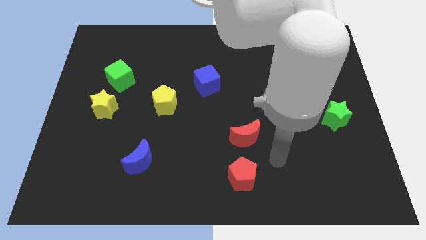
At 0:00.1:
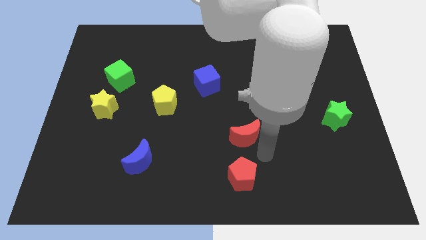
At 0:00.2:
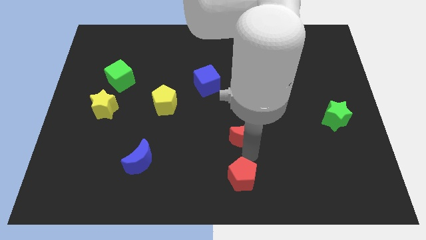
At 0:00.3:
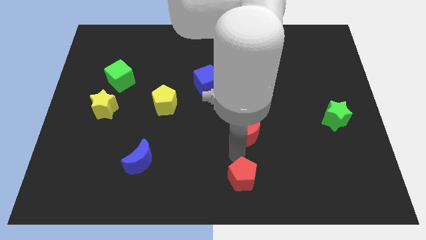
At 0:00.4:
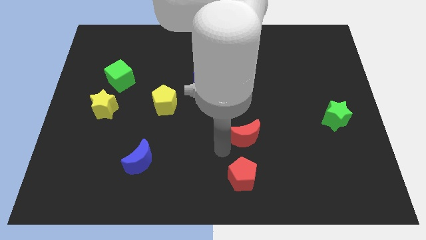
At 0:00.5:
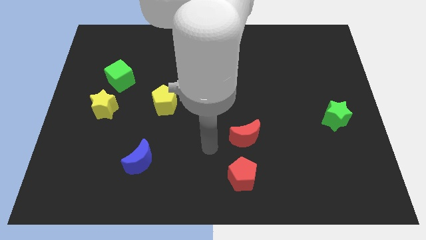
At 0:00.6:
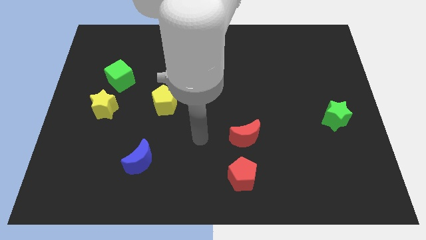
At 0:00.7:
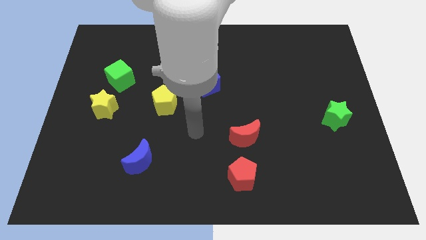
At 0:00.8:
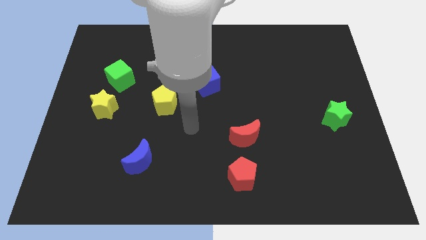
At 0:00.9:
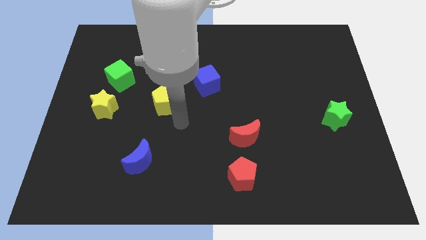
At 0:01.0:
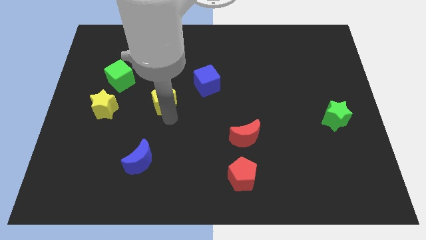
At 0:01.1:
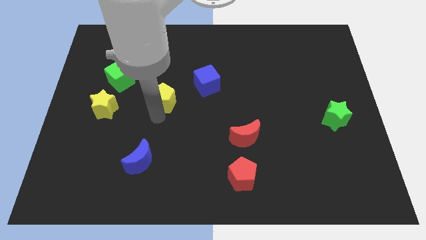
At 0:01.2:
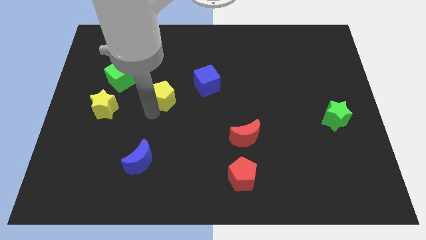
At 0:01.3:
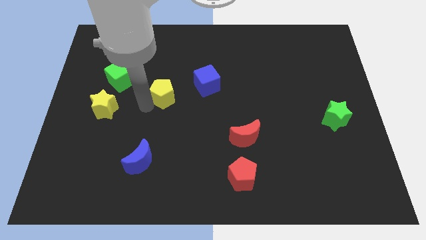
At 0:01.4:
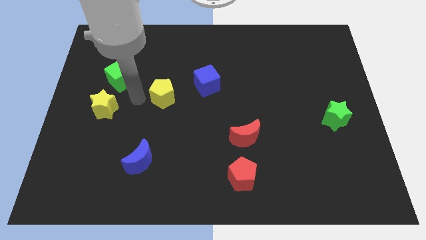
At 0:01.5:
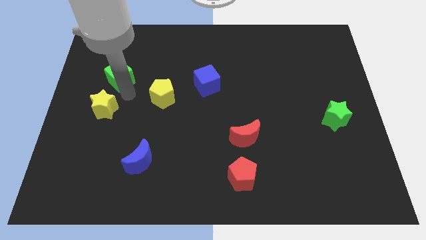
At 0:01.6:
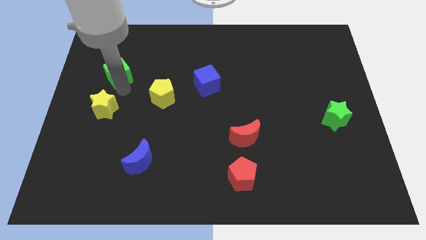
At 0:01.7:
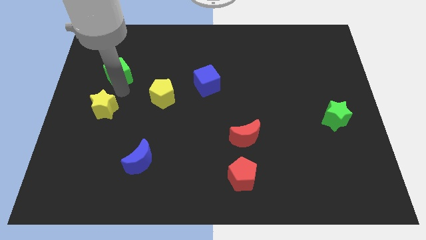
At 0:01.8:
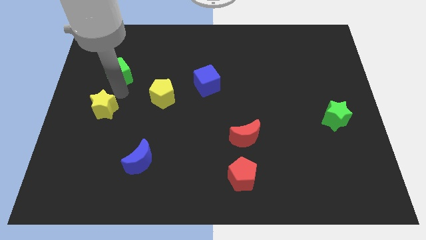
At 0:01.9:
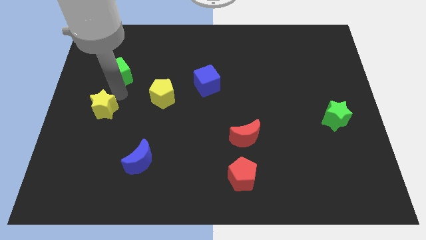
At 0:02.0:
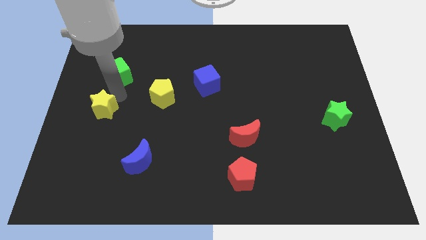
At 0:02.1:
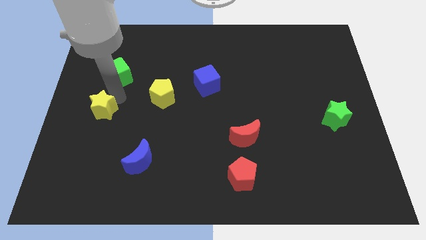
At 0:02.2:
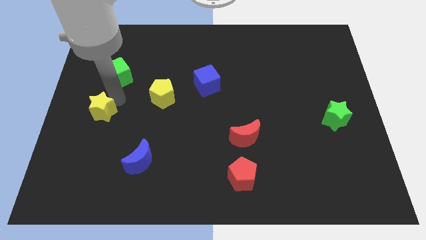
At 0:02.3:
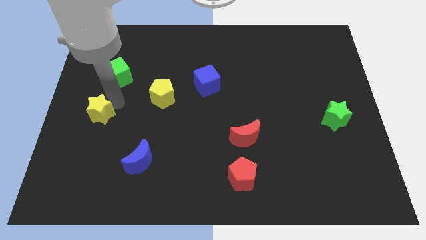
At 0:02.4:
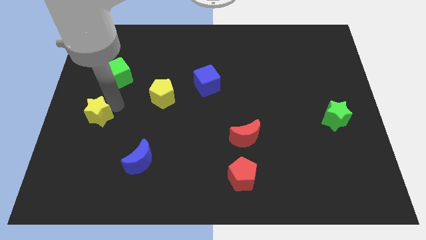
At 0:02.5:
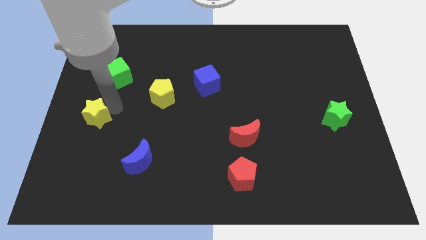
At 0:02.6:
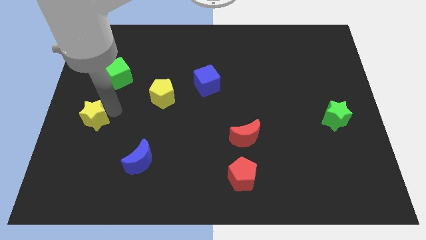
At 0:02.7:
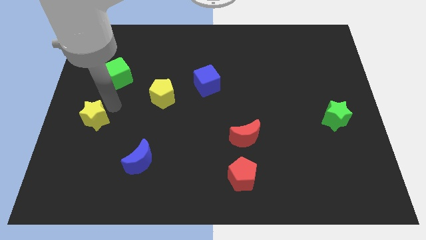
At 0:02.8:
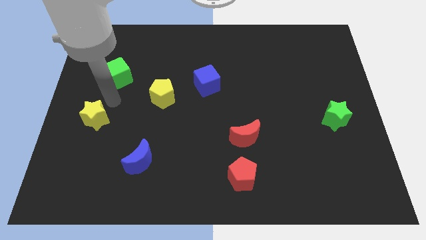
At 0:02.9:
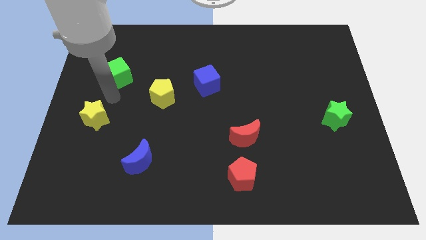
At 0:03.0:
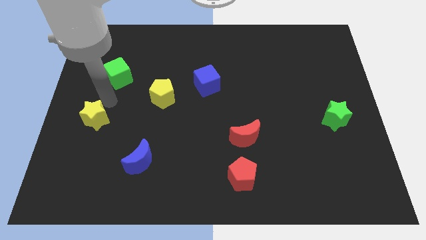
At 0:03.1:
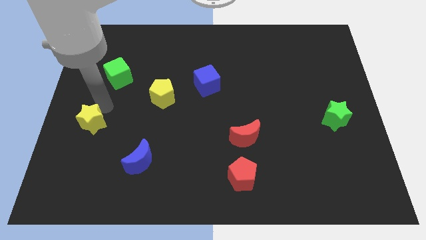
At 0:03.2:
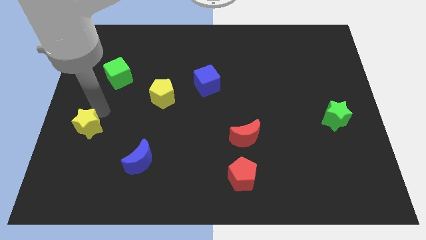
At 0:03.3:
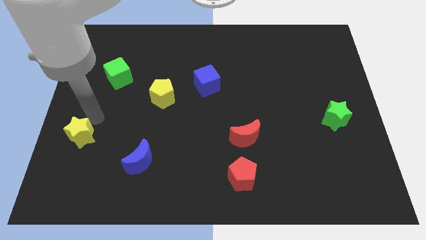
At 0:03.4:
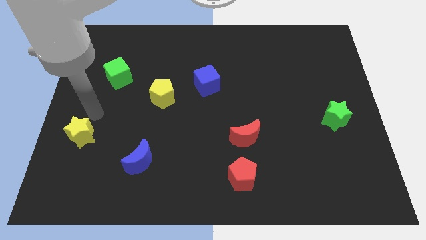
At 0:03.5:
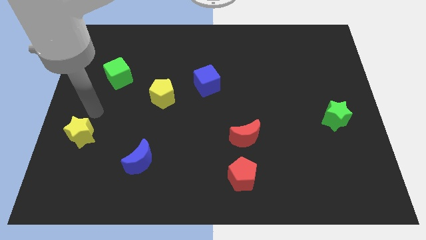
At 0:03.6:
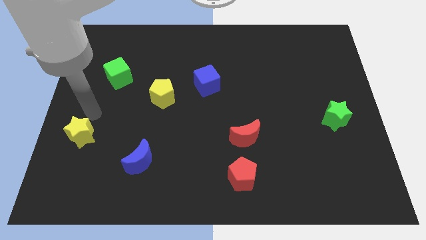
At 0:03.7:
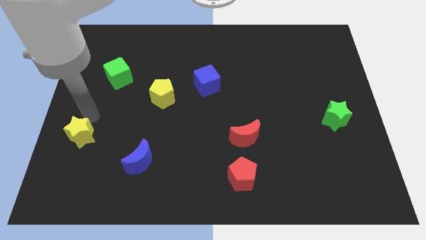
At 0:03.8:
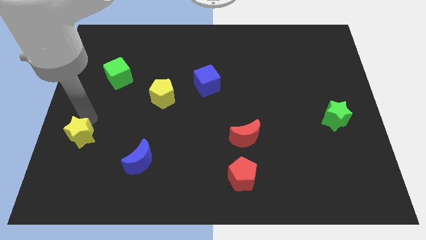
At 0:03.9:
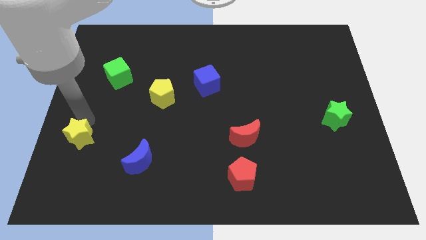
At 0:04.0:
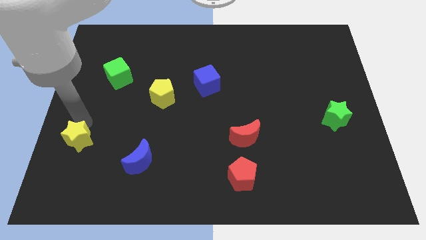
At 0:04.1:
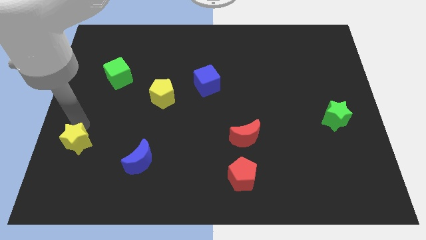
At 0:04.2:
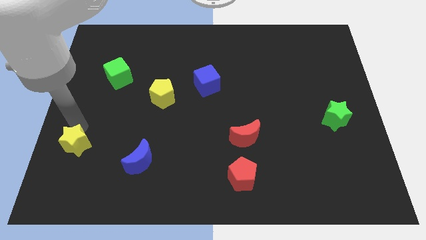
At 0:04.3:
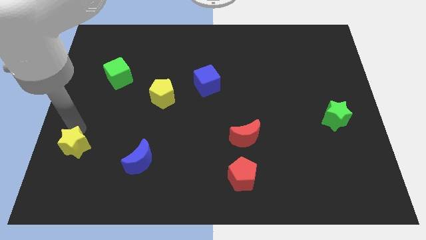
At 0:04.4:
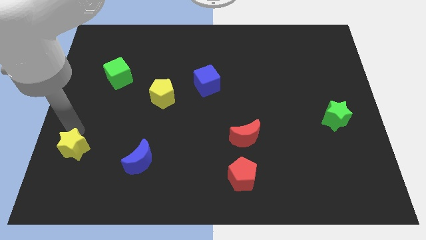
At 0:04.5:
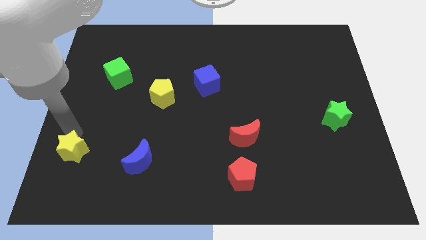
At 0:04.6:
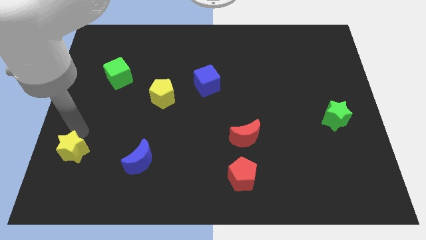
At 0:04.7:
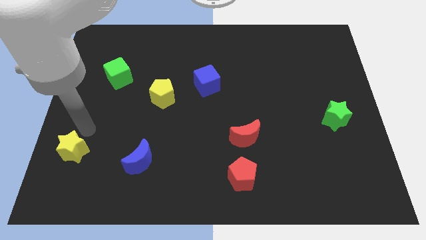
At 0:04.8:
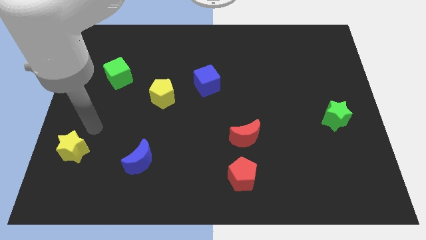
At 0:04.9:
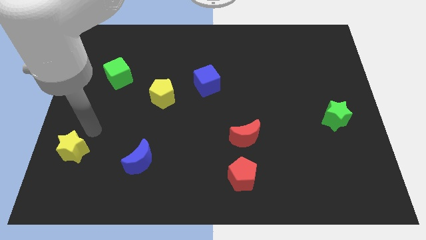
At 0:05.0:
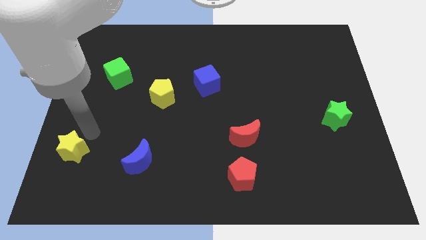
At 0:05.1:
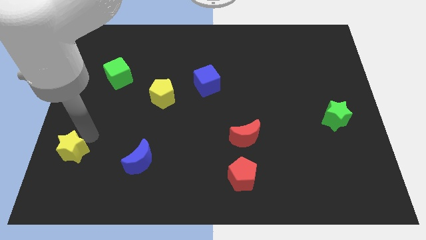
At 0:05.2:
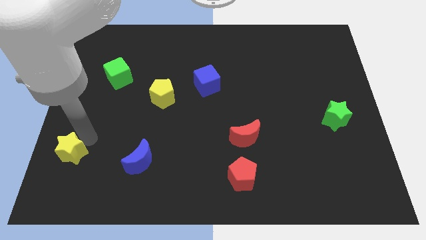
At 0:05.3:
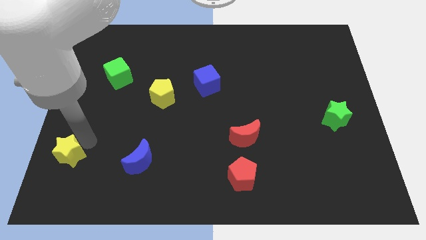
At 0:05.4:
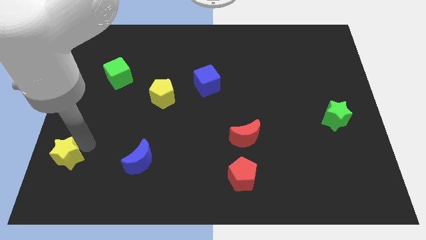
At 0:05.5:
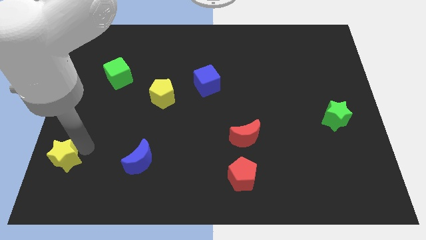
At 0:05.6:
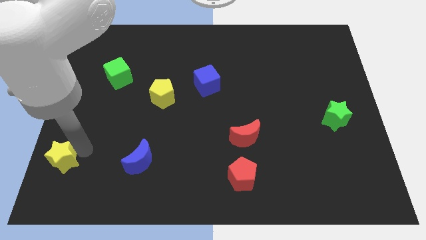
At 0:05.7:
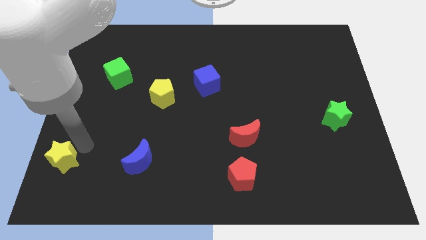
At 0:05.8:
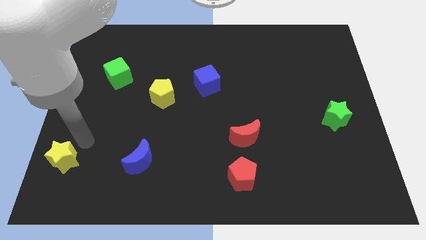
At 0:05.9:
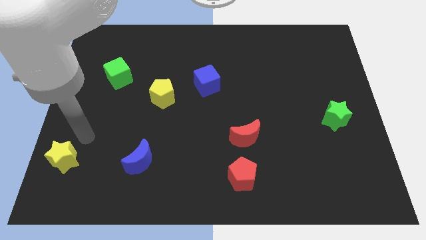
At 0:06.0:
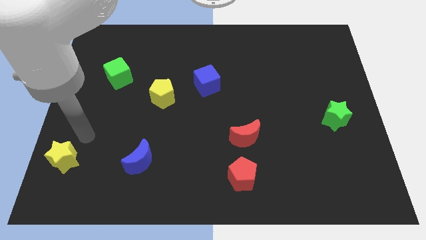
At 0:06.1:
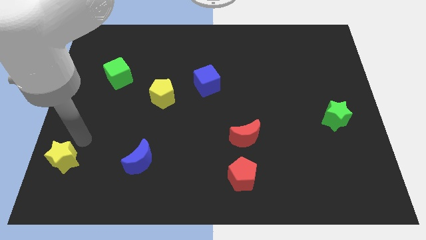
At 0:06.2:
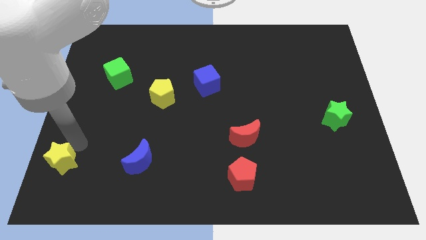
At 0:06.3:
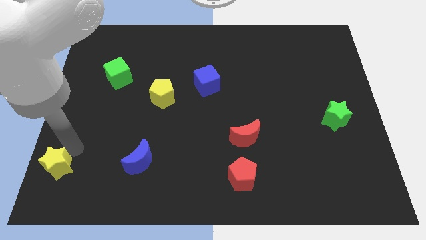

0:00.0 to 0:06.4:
move the yellow star to the lower left corner

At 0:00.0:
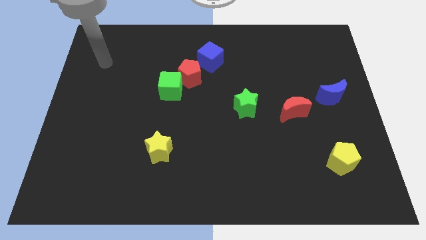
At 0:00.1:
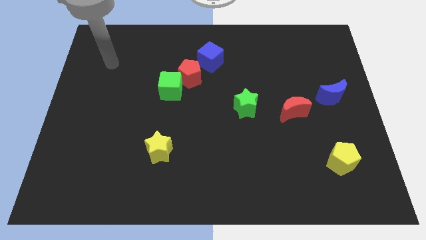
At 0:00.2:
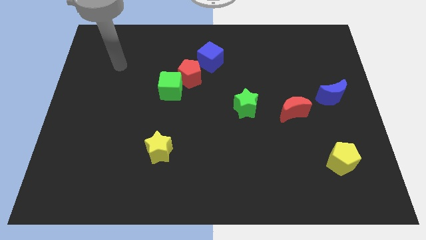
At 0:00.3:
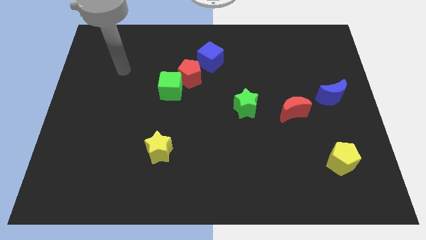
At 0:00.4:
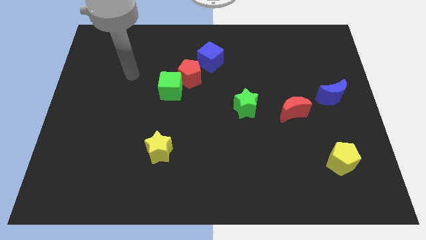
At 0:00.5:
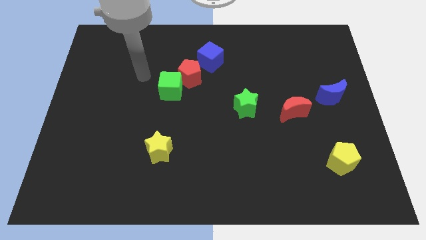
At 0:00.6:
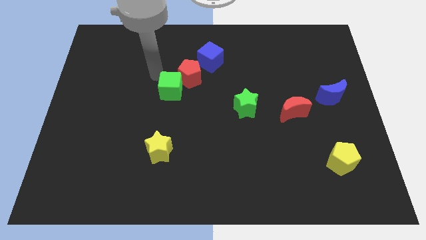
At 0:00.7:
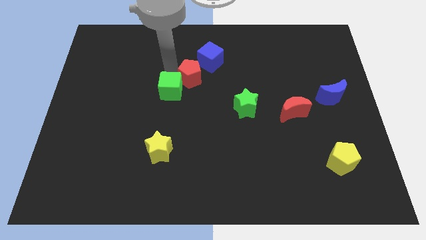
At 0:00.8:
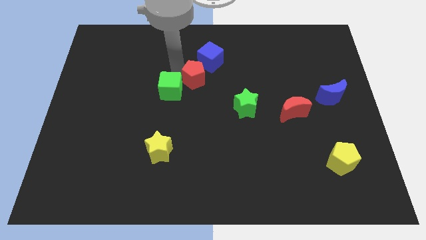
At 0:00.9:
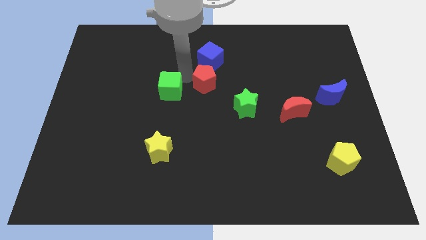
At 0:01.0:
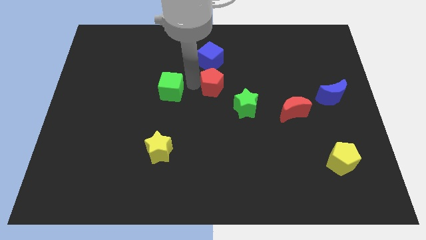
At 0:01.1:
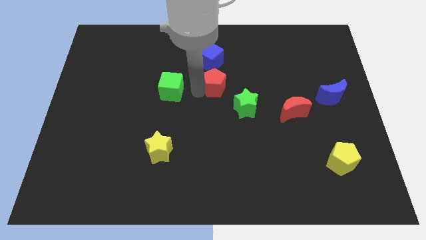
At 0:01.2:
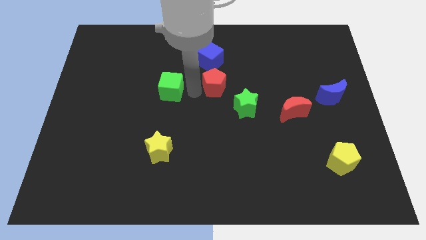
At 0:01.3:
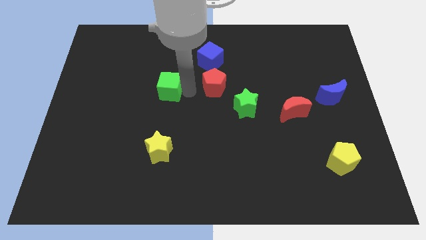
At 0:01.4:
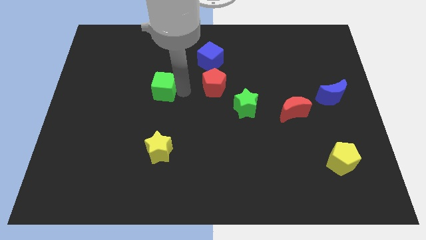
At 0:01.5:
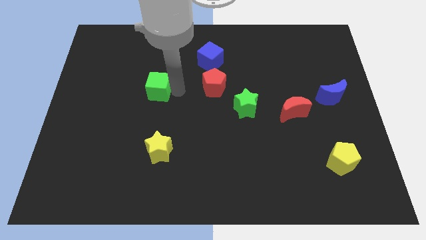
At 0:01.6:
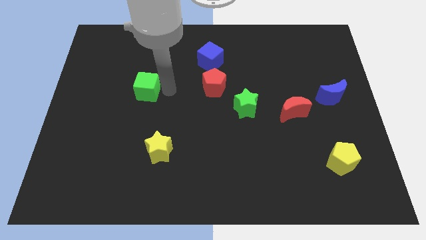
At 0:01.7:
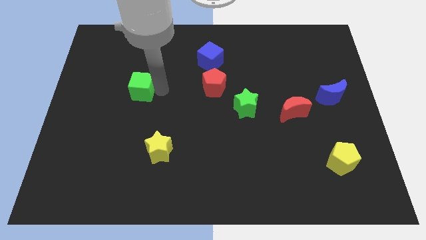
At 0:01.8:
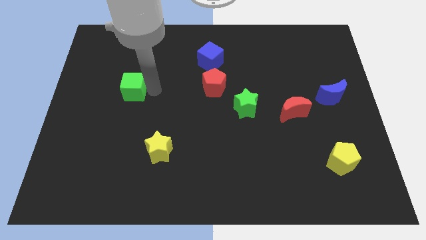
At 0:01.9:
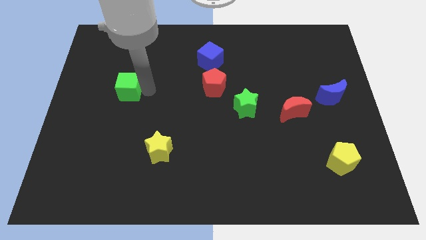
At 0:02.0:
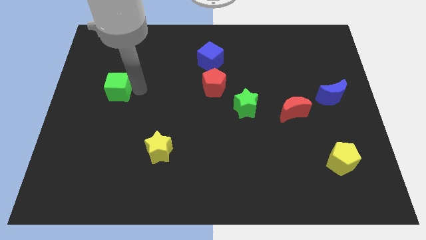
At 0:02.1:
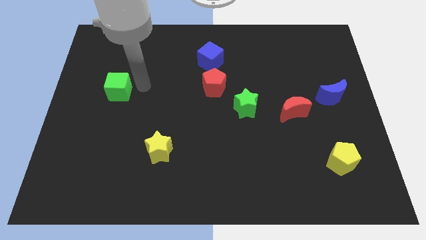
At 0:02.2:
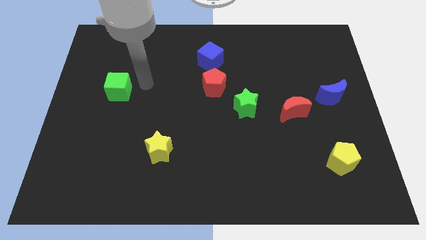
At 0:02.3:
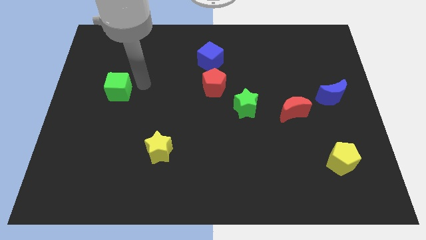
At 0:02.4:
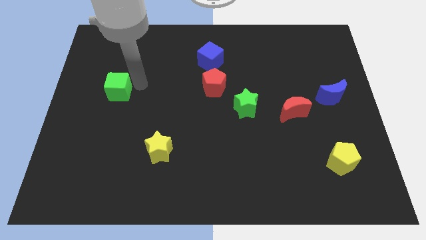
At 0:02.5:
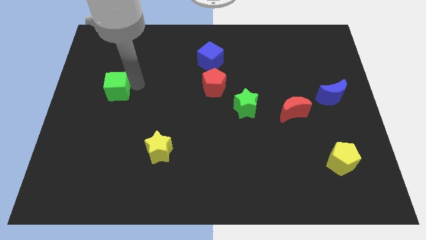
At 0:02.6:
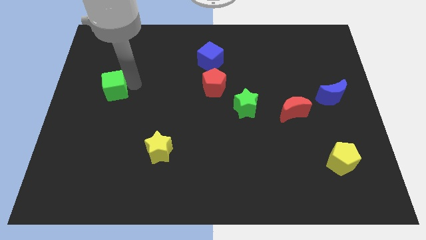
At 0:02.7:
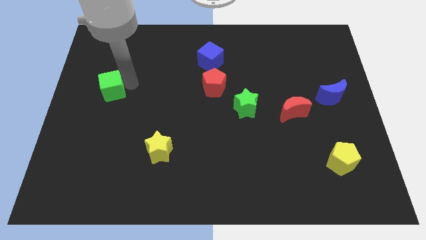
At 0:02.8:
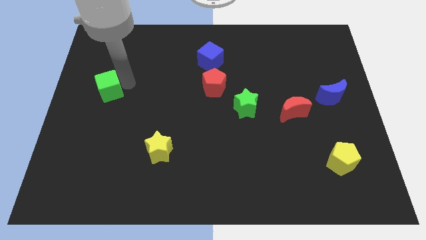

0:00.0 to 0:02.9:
put the green cube to the center left
